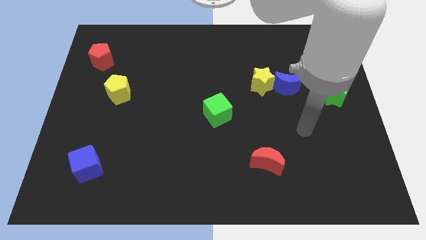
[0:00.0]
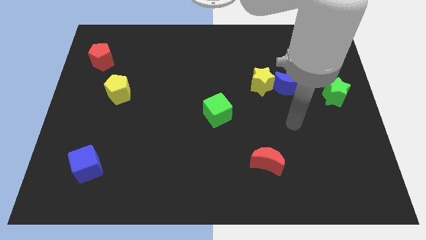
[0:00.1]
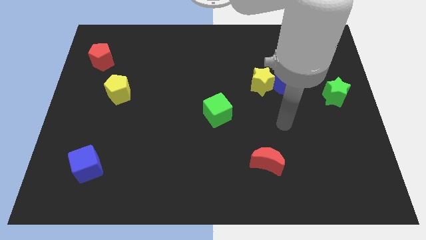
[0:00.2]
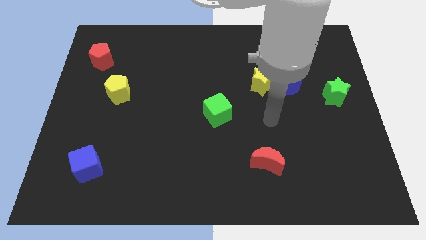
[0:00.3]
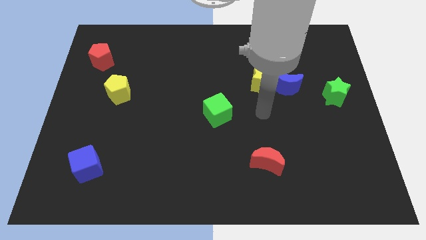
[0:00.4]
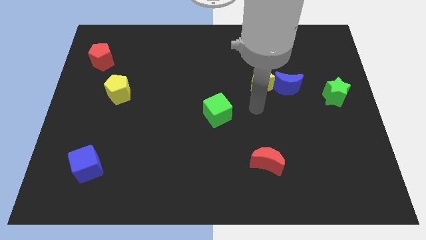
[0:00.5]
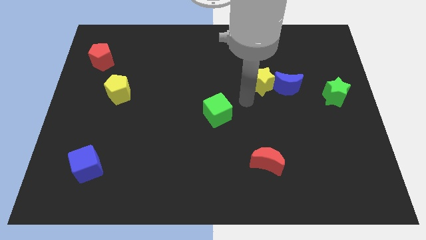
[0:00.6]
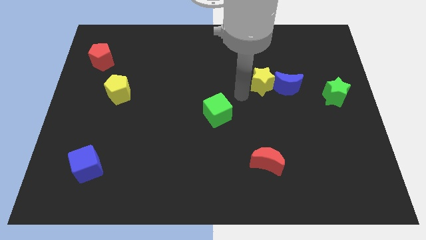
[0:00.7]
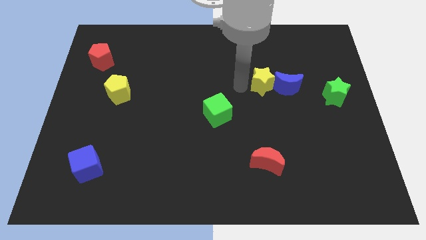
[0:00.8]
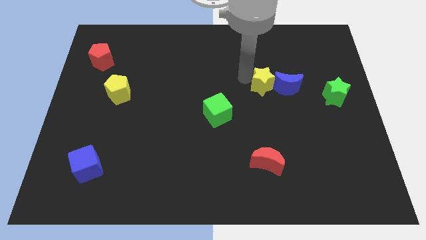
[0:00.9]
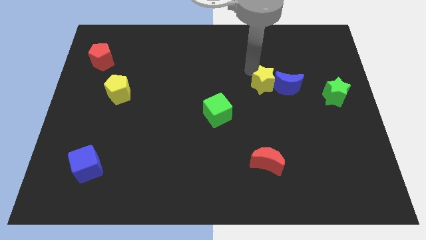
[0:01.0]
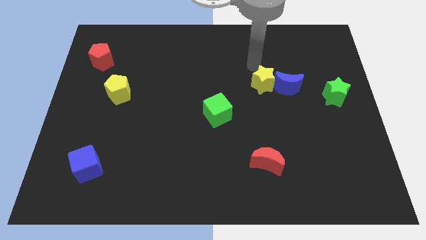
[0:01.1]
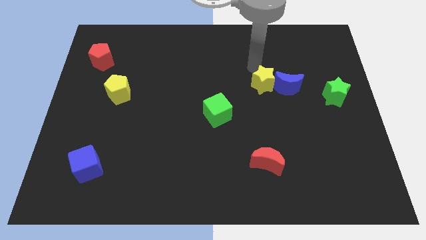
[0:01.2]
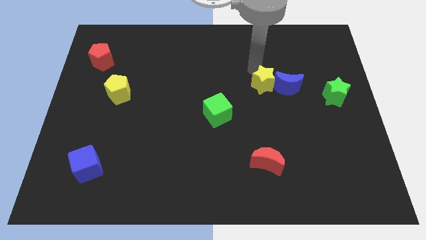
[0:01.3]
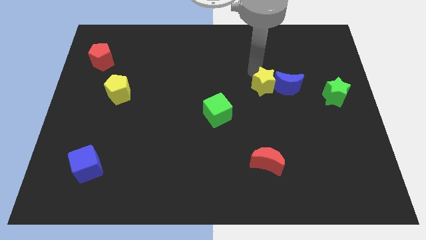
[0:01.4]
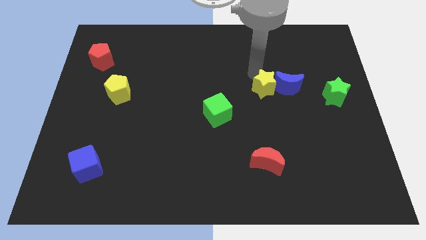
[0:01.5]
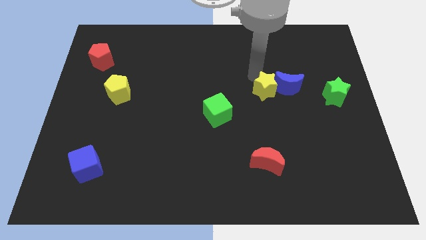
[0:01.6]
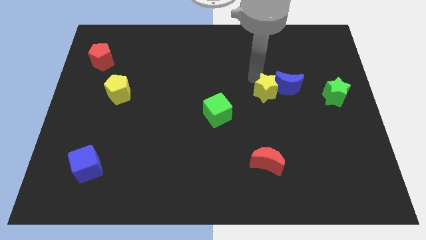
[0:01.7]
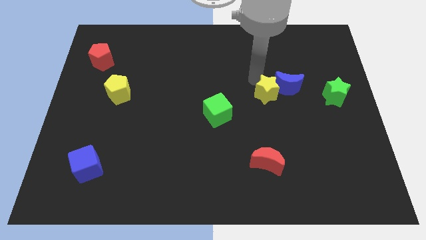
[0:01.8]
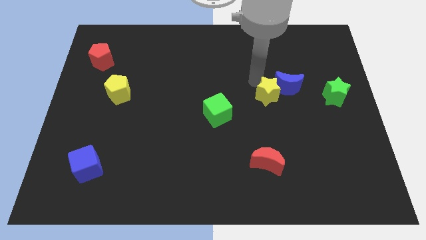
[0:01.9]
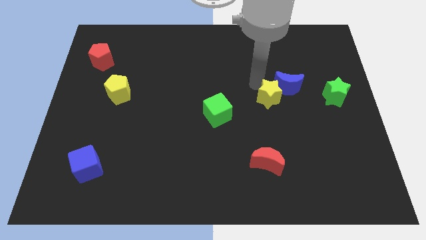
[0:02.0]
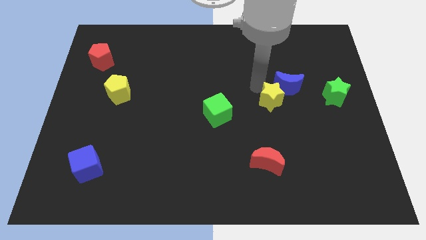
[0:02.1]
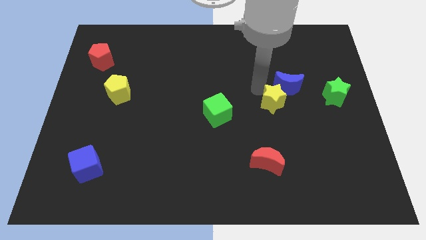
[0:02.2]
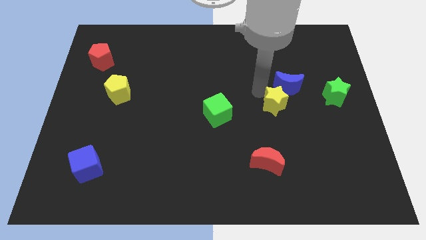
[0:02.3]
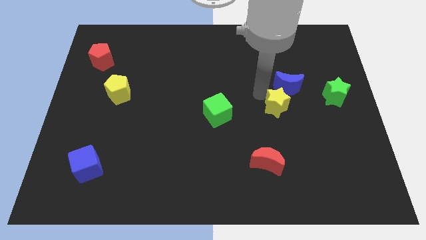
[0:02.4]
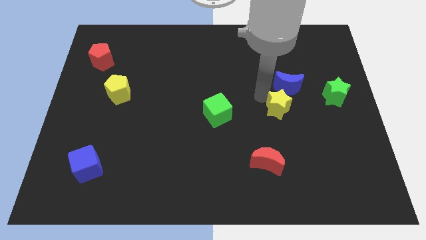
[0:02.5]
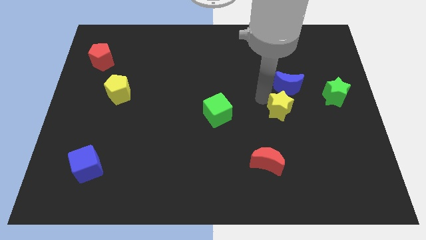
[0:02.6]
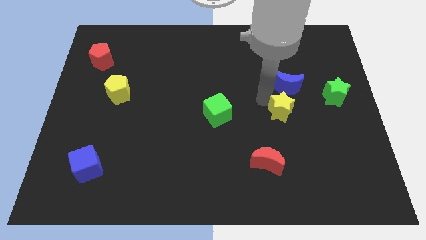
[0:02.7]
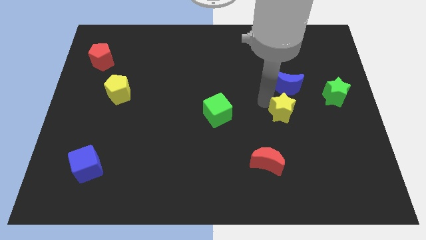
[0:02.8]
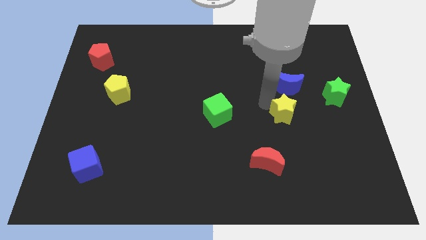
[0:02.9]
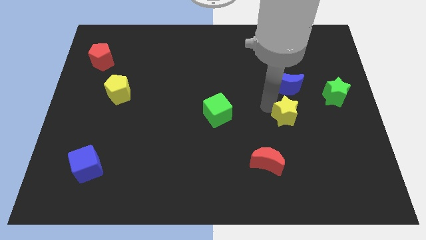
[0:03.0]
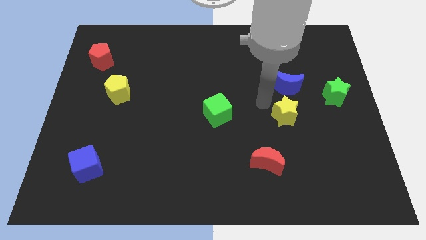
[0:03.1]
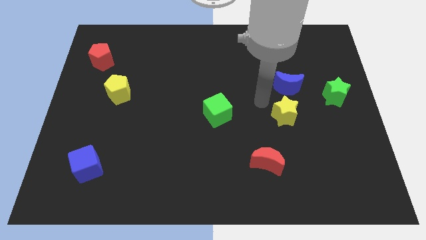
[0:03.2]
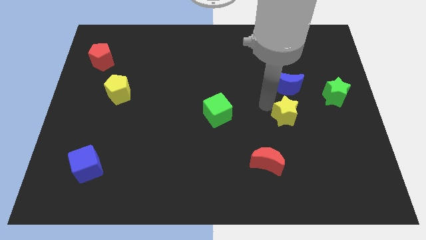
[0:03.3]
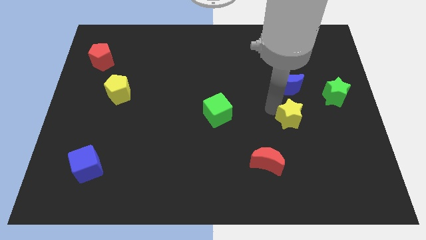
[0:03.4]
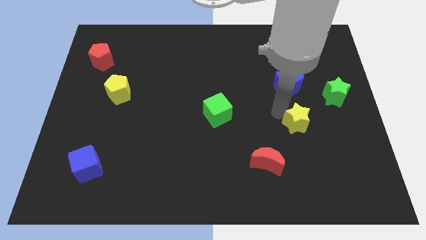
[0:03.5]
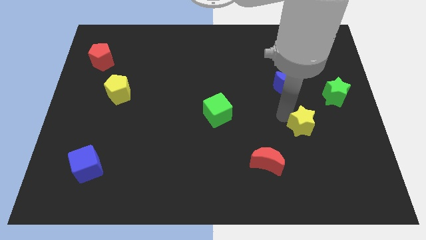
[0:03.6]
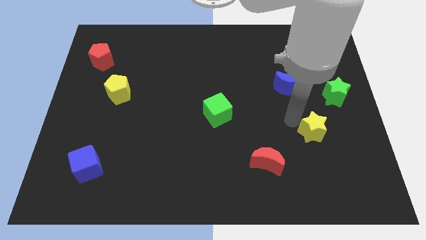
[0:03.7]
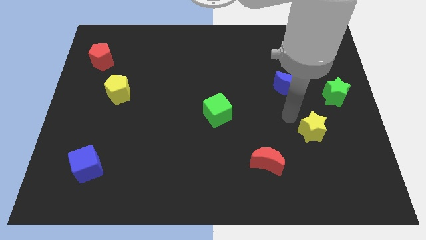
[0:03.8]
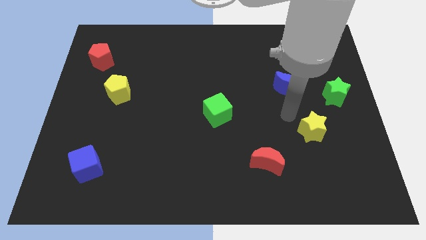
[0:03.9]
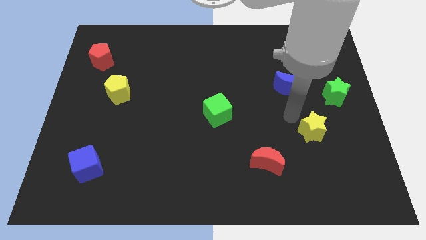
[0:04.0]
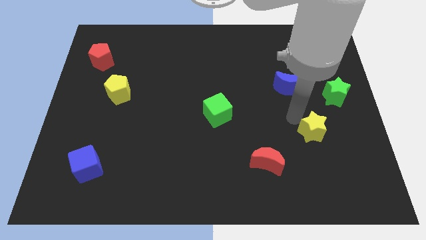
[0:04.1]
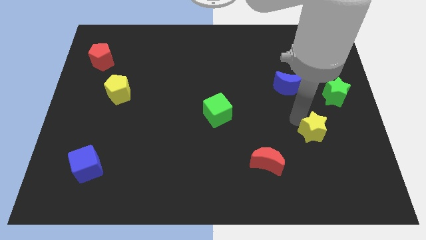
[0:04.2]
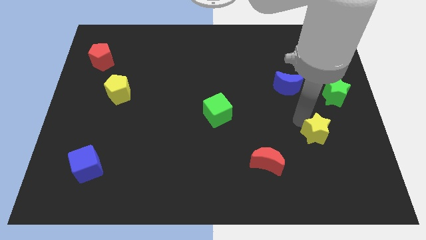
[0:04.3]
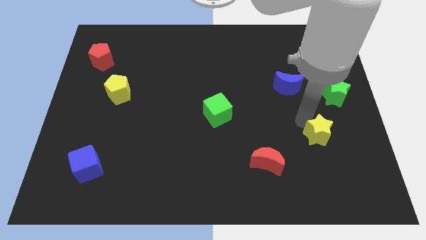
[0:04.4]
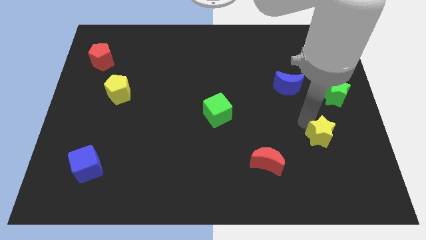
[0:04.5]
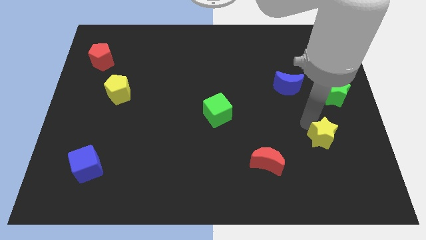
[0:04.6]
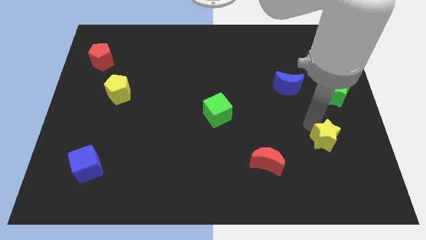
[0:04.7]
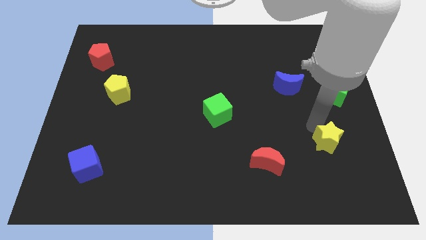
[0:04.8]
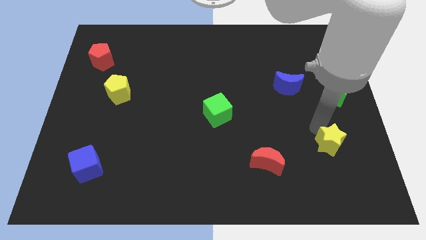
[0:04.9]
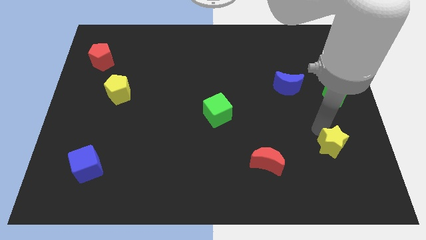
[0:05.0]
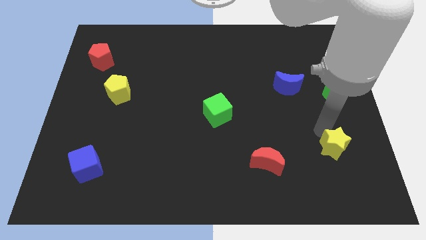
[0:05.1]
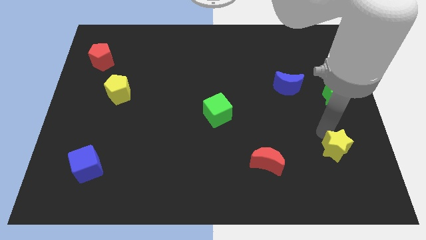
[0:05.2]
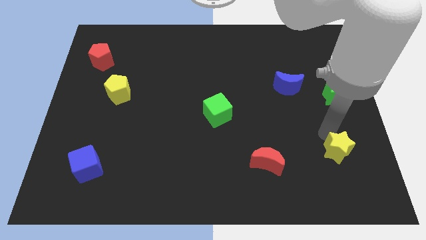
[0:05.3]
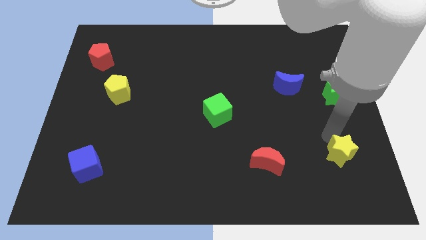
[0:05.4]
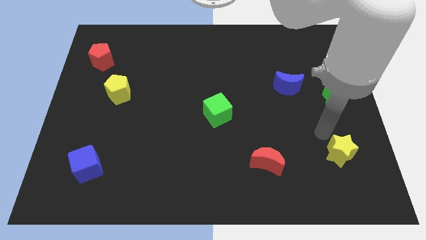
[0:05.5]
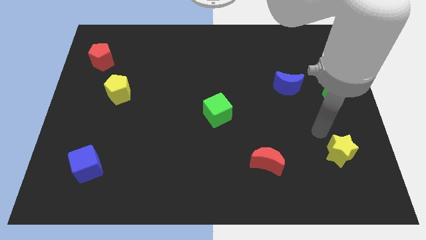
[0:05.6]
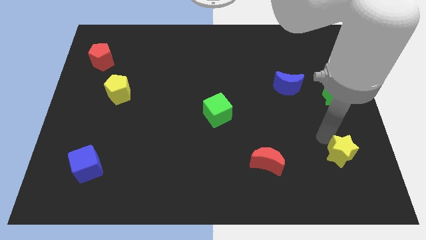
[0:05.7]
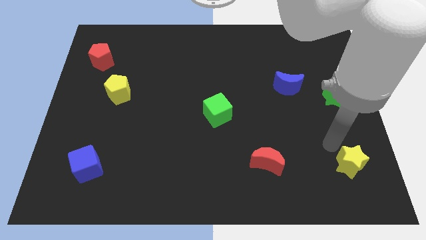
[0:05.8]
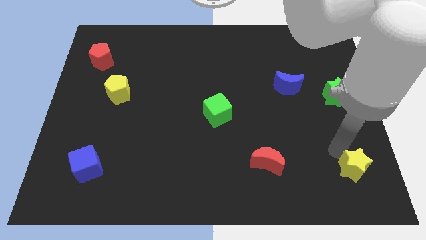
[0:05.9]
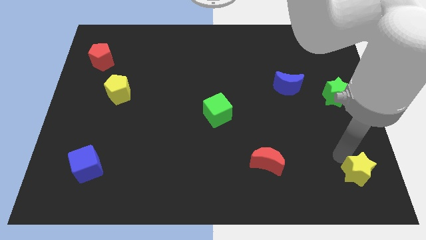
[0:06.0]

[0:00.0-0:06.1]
move the yellow star to the bottom right corner

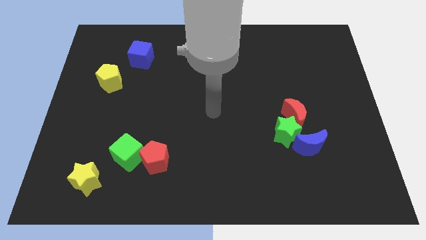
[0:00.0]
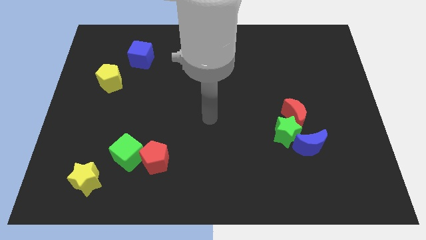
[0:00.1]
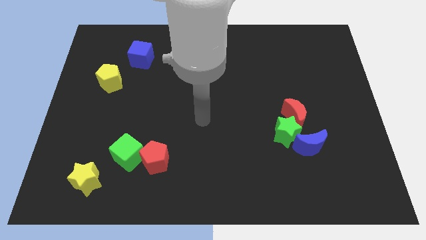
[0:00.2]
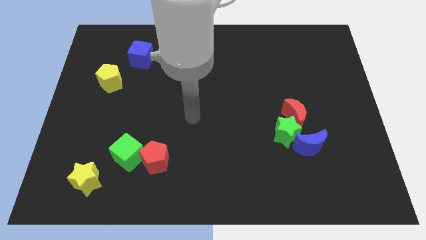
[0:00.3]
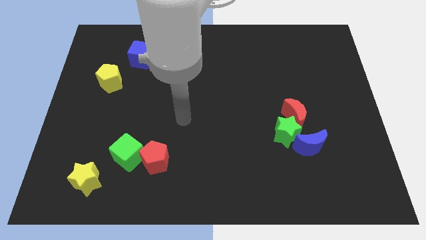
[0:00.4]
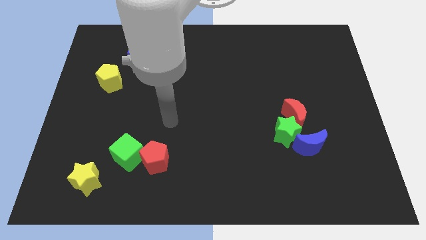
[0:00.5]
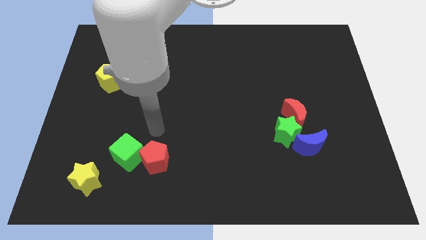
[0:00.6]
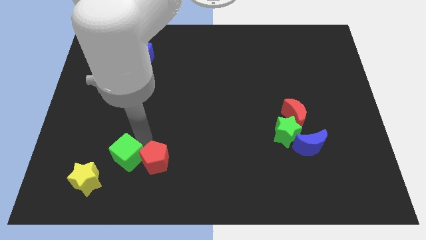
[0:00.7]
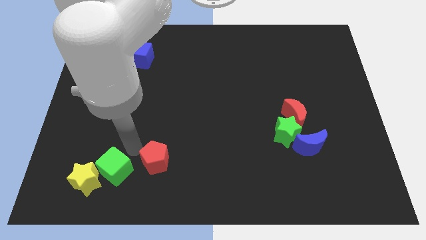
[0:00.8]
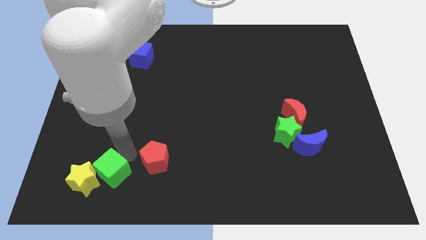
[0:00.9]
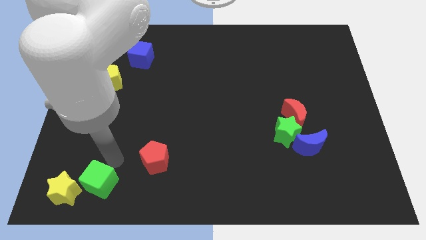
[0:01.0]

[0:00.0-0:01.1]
put the yellow star to the bottom left corner
